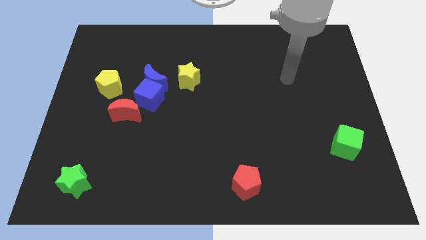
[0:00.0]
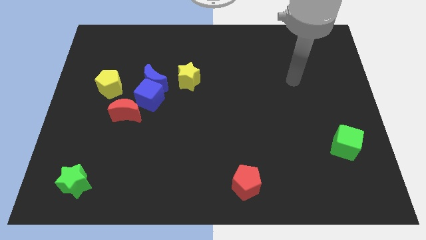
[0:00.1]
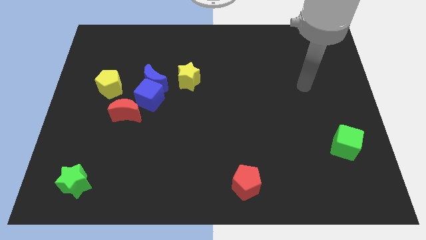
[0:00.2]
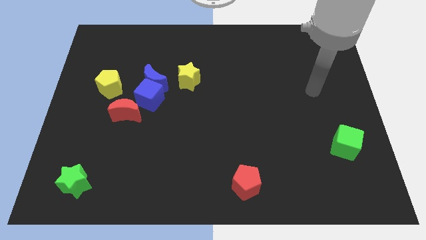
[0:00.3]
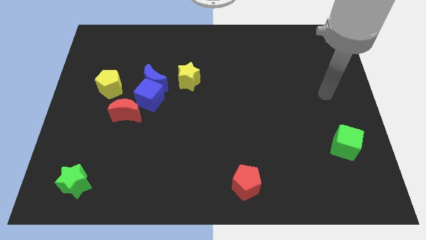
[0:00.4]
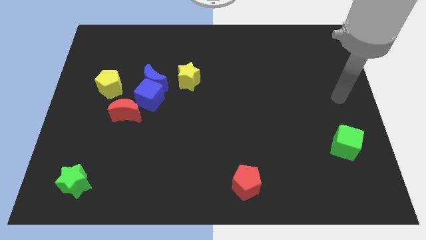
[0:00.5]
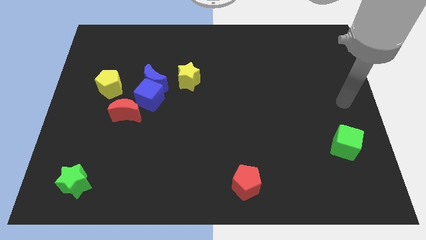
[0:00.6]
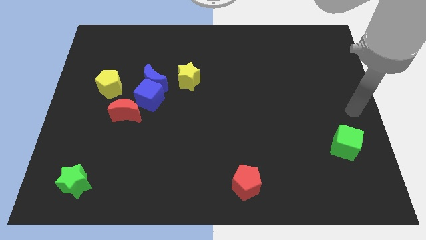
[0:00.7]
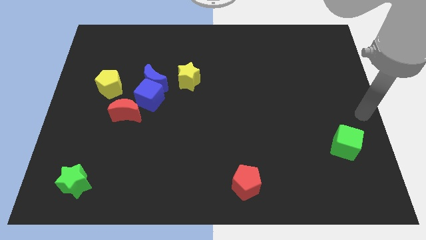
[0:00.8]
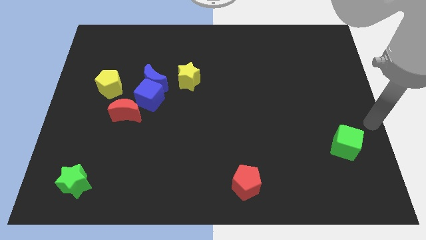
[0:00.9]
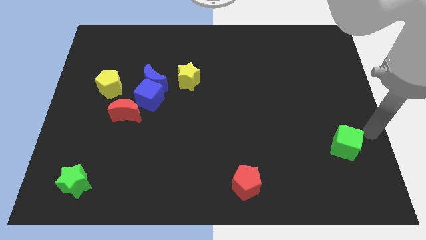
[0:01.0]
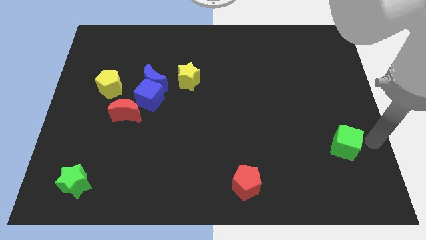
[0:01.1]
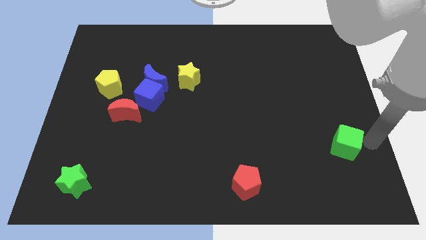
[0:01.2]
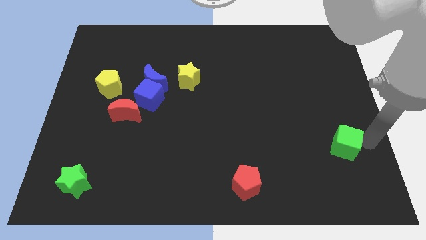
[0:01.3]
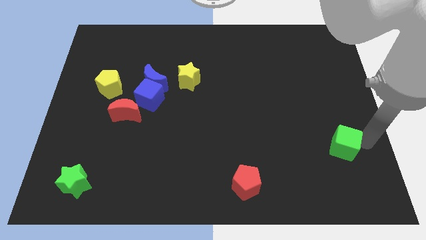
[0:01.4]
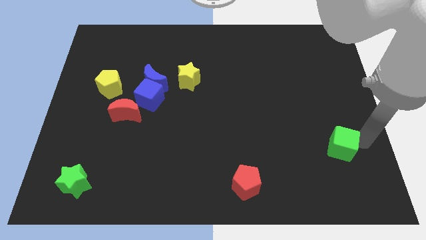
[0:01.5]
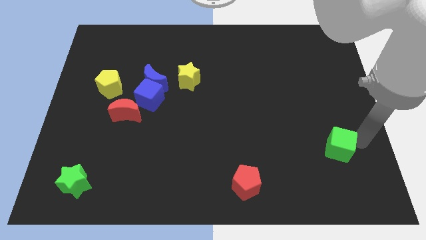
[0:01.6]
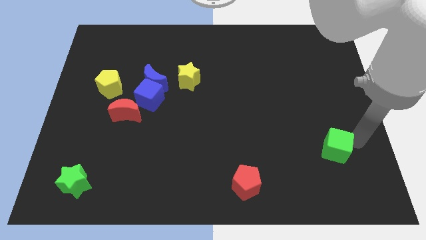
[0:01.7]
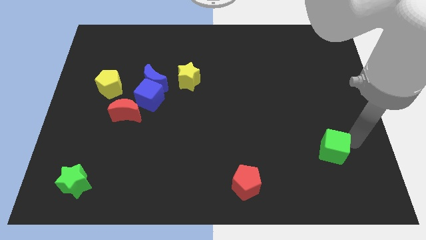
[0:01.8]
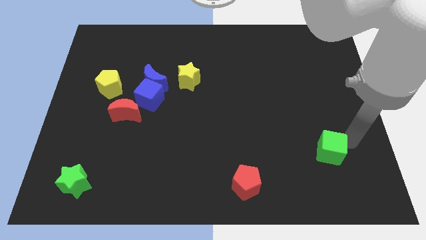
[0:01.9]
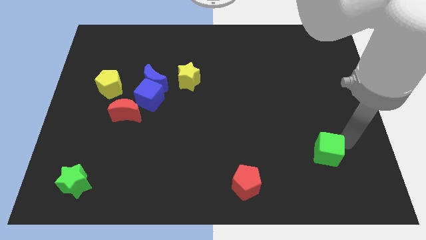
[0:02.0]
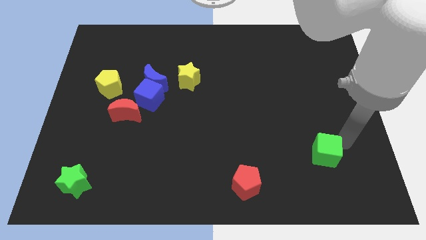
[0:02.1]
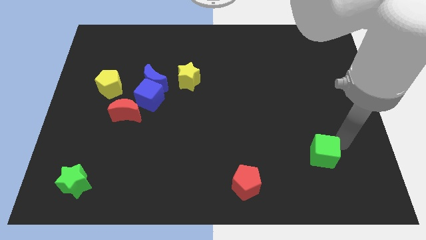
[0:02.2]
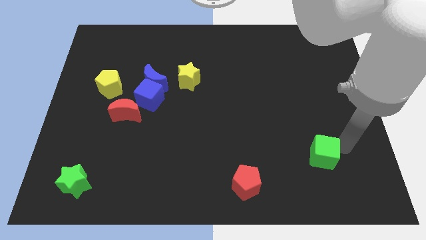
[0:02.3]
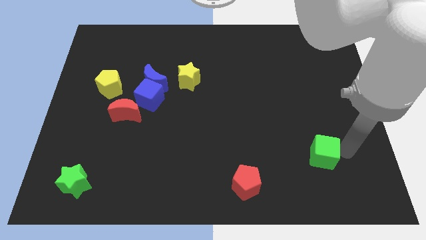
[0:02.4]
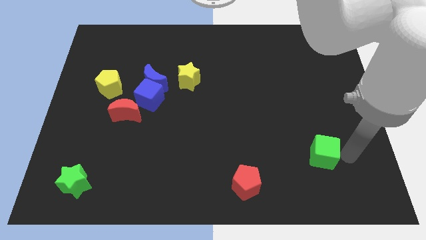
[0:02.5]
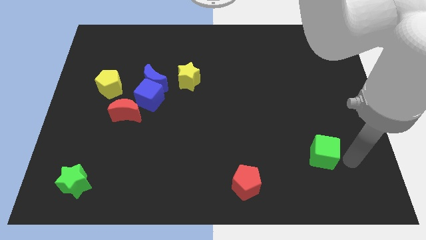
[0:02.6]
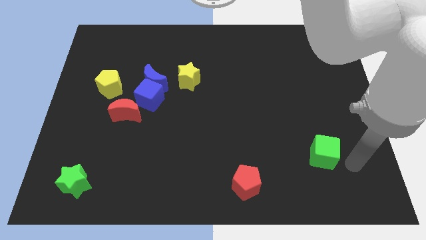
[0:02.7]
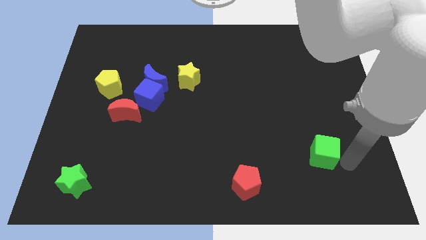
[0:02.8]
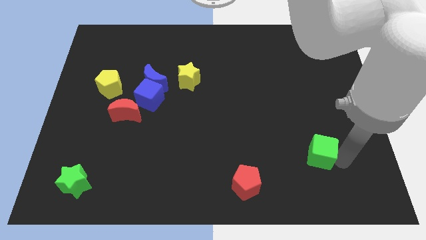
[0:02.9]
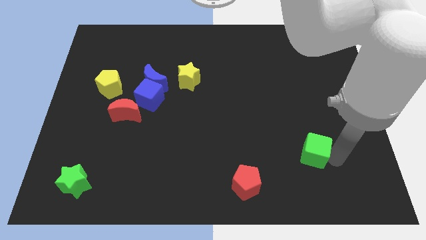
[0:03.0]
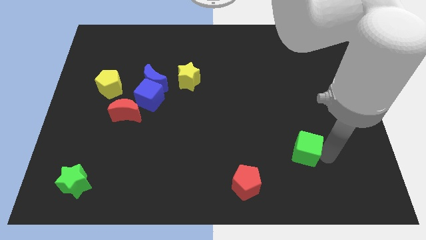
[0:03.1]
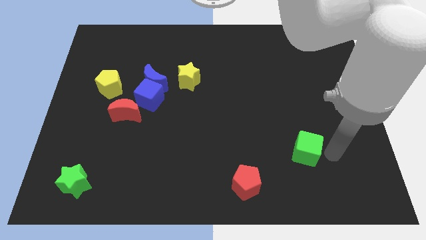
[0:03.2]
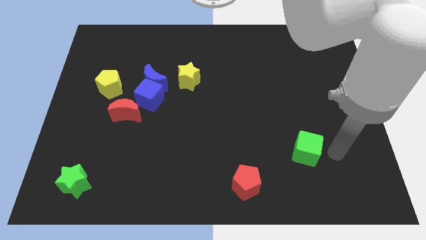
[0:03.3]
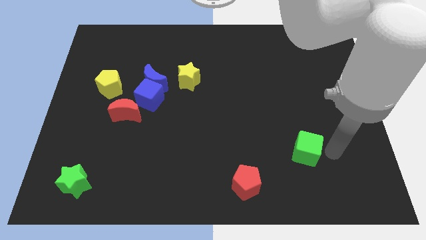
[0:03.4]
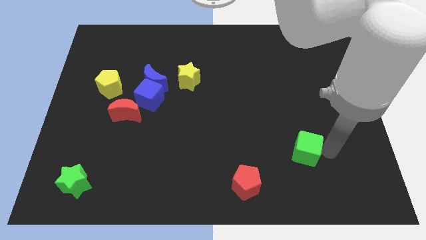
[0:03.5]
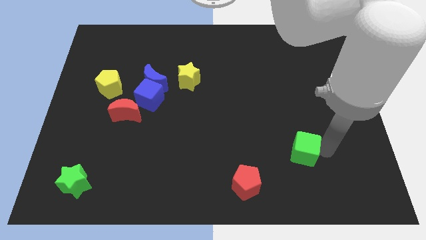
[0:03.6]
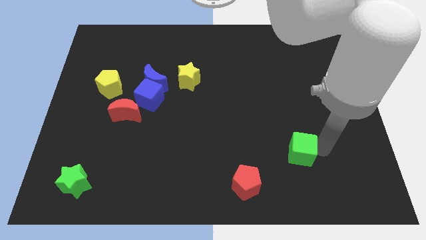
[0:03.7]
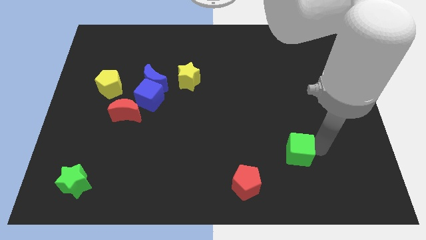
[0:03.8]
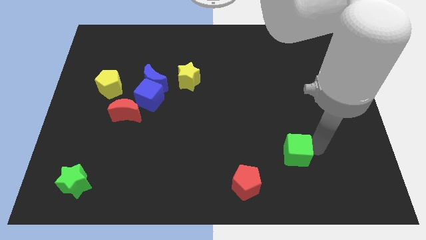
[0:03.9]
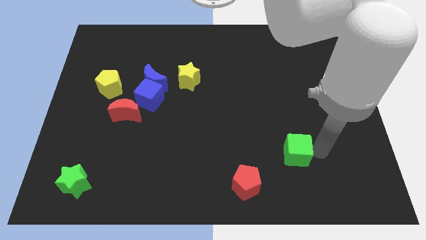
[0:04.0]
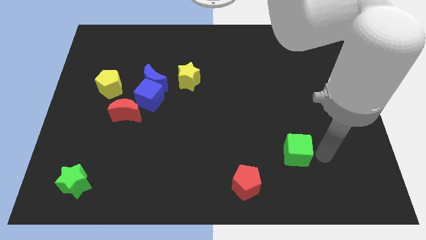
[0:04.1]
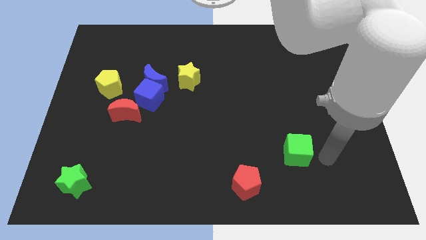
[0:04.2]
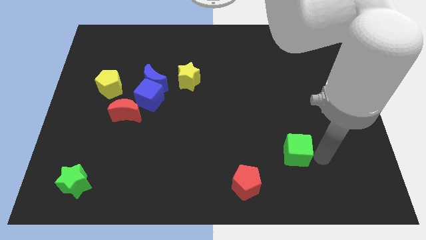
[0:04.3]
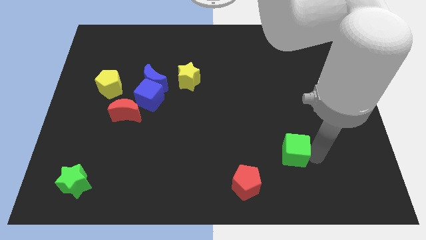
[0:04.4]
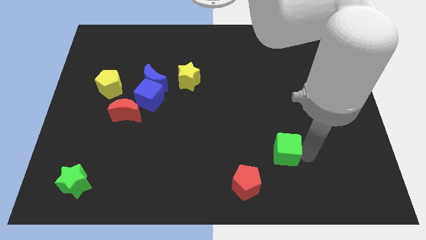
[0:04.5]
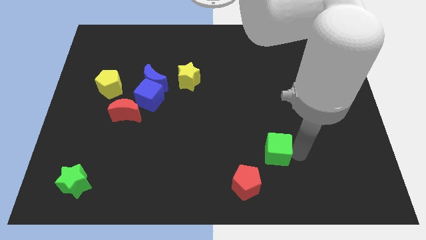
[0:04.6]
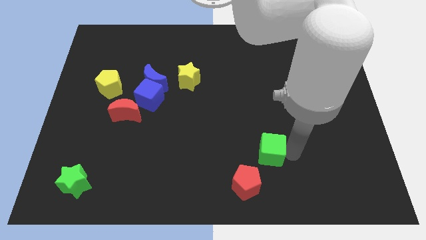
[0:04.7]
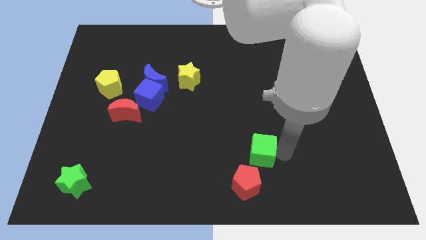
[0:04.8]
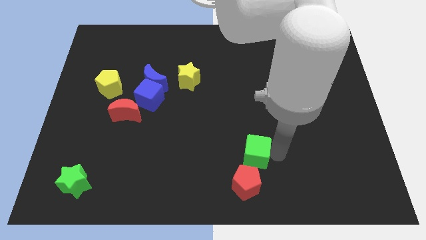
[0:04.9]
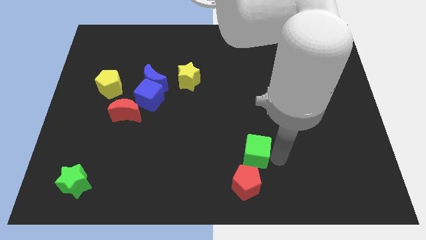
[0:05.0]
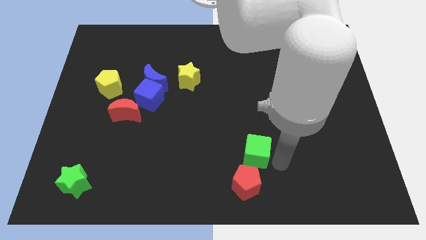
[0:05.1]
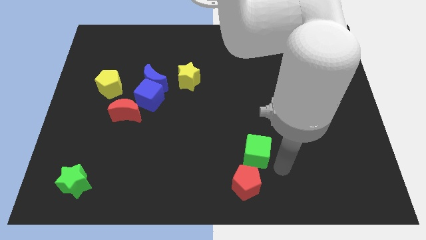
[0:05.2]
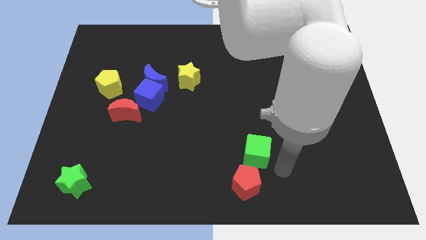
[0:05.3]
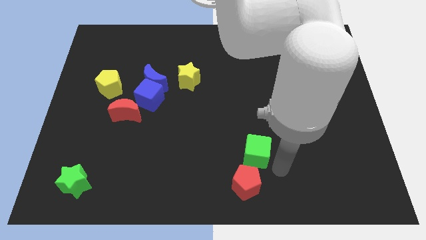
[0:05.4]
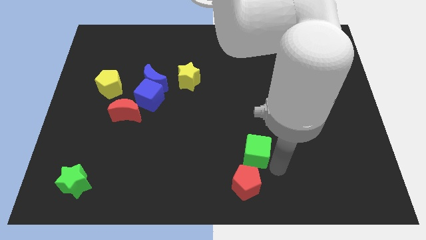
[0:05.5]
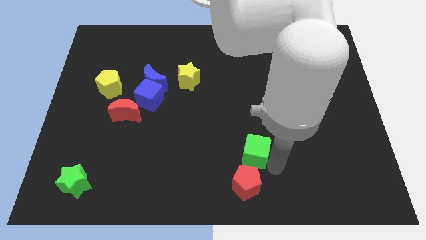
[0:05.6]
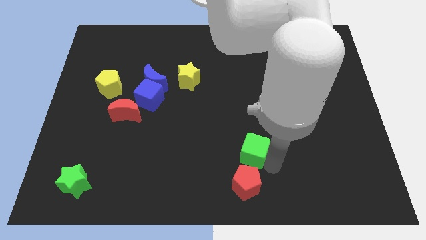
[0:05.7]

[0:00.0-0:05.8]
move the green cube left

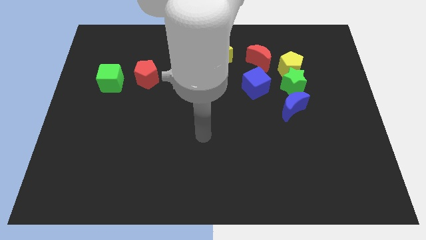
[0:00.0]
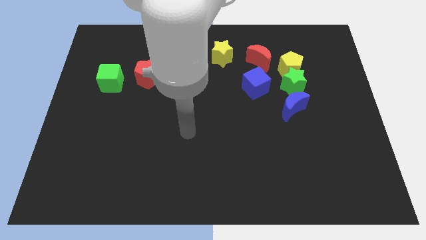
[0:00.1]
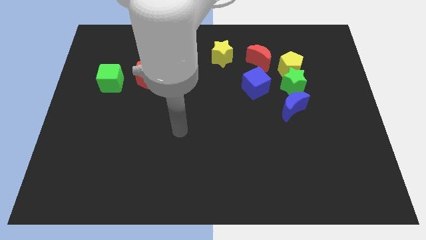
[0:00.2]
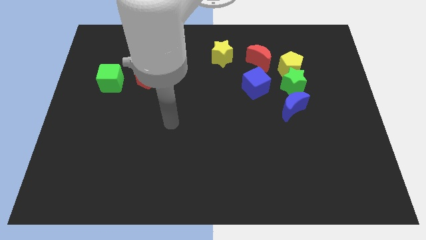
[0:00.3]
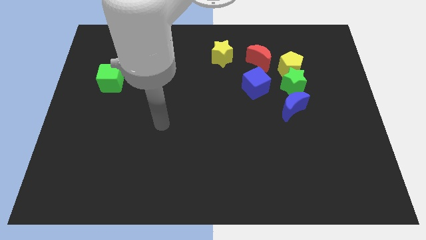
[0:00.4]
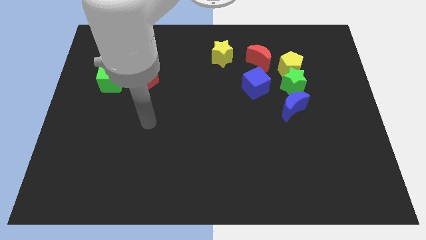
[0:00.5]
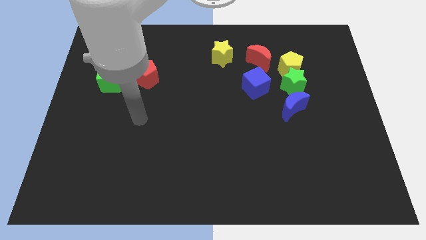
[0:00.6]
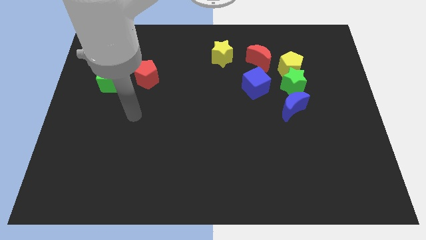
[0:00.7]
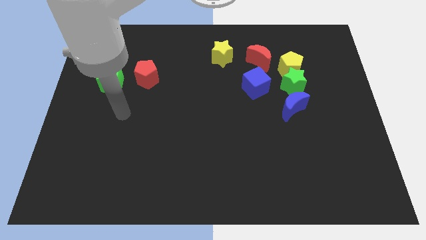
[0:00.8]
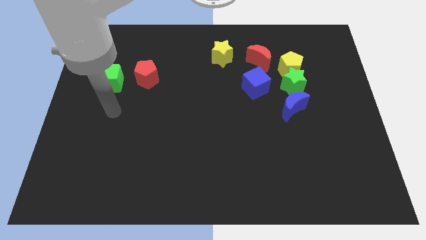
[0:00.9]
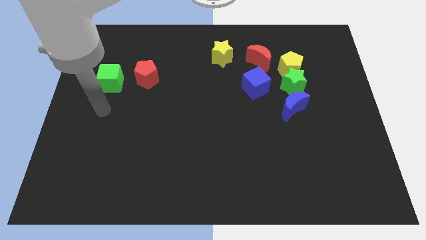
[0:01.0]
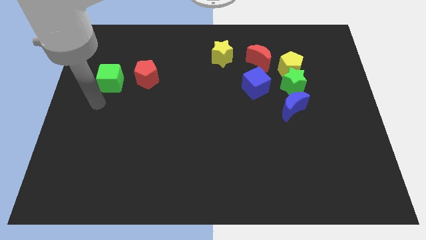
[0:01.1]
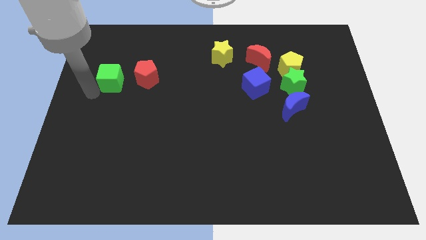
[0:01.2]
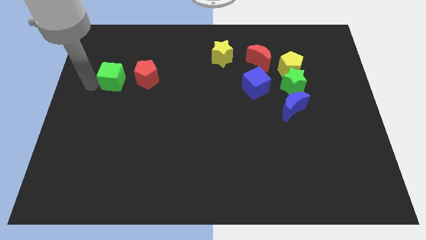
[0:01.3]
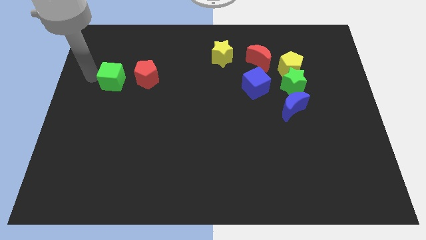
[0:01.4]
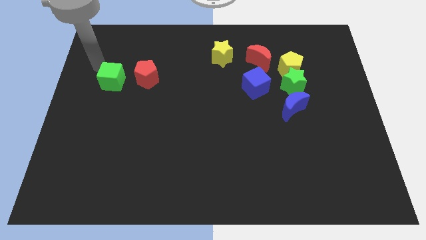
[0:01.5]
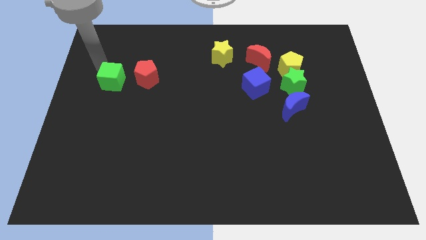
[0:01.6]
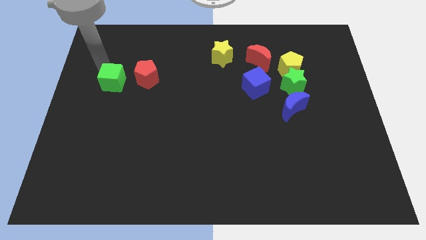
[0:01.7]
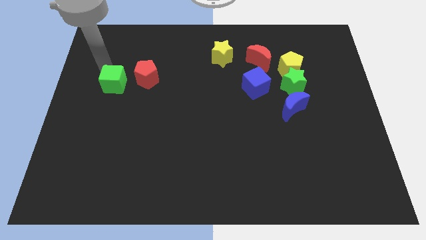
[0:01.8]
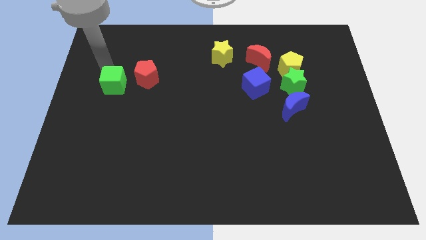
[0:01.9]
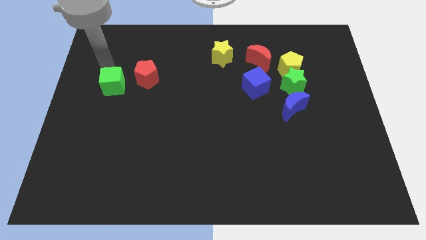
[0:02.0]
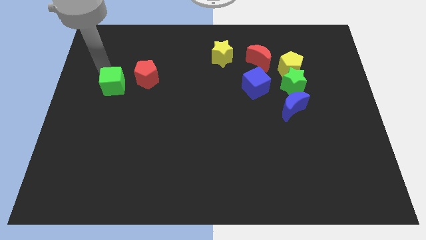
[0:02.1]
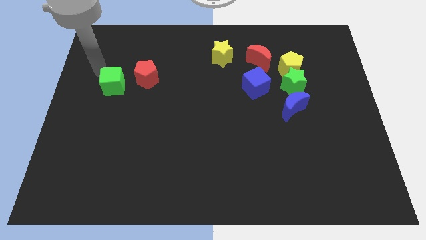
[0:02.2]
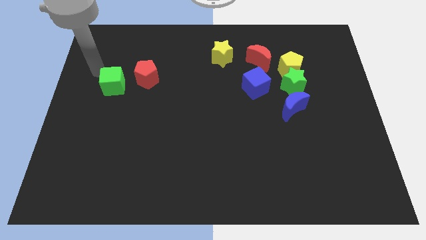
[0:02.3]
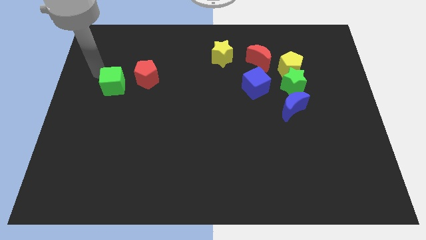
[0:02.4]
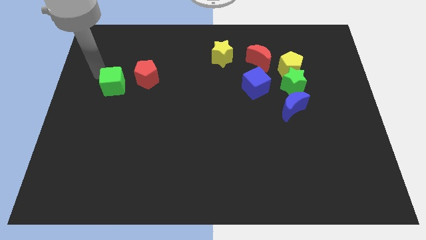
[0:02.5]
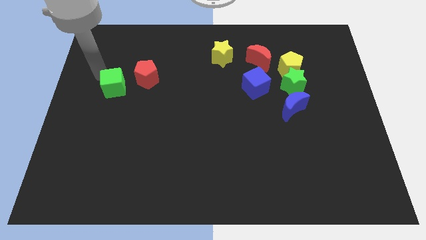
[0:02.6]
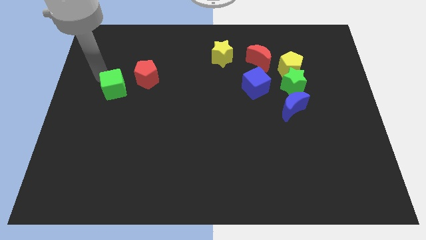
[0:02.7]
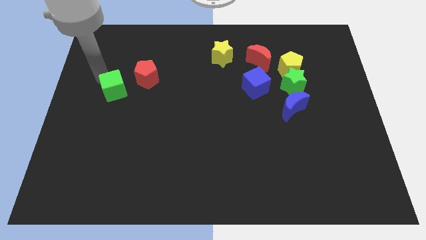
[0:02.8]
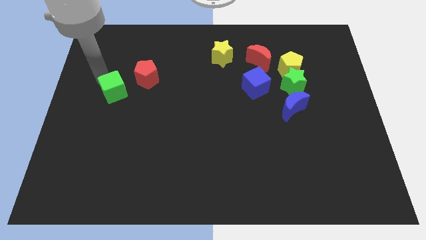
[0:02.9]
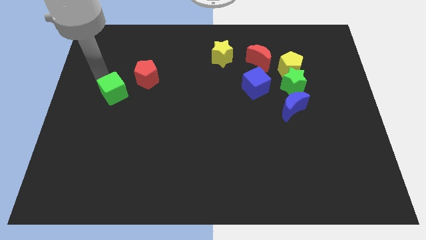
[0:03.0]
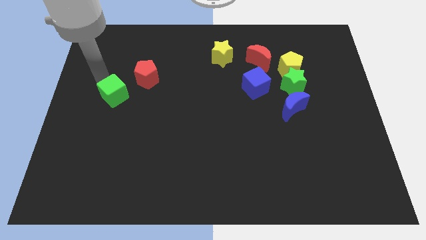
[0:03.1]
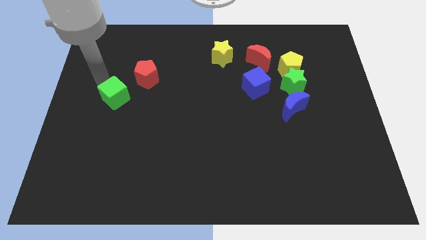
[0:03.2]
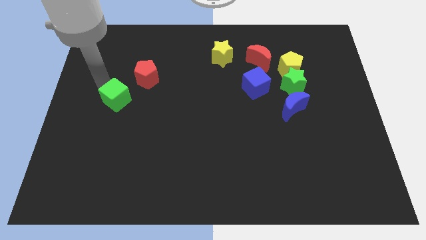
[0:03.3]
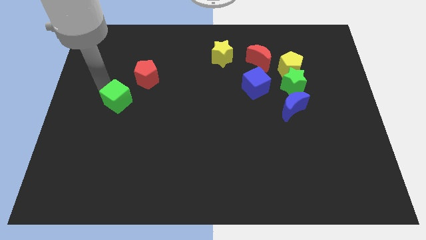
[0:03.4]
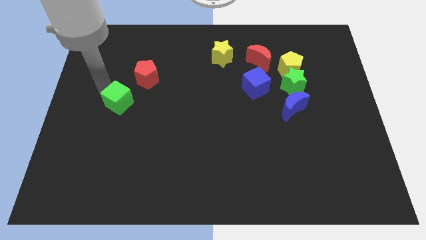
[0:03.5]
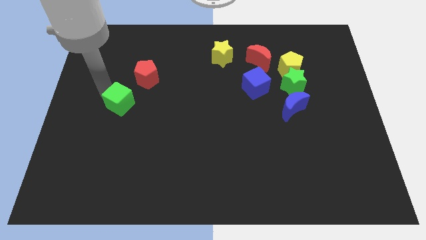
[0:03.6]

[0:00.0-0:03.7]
push the green cube a bit downwards and then right
